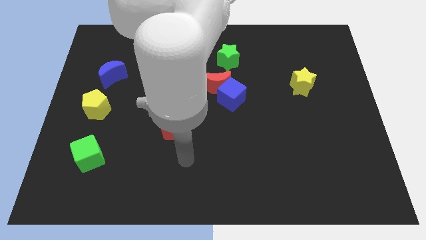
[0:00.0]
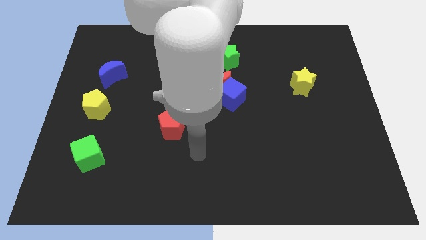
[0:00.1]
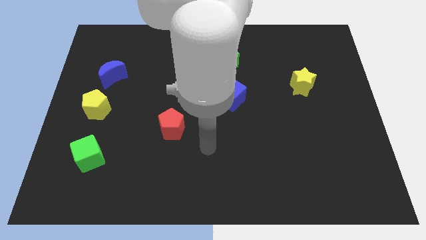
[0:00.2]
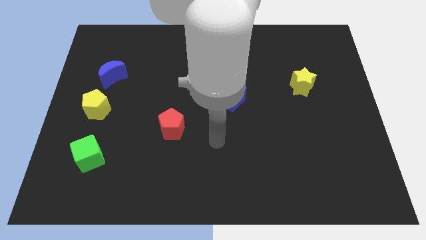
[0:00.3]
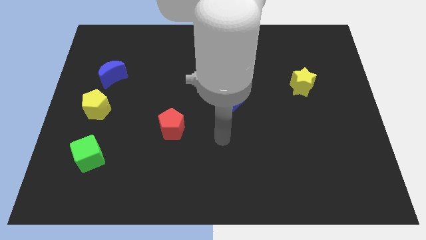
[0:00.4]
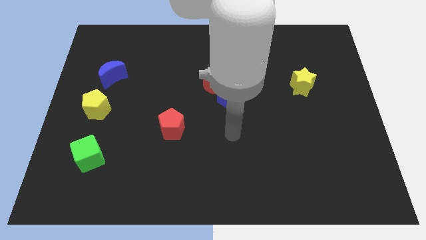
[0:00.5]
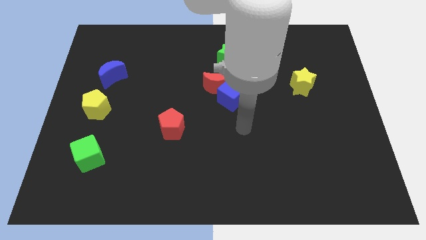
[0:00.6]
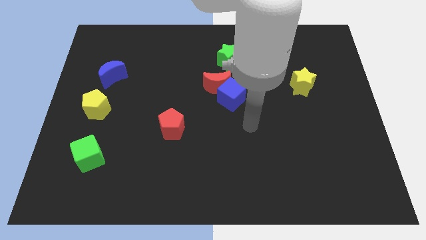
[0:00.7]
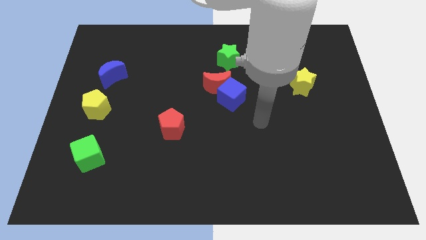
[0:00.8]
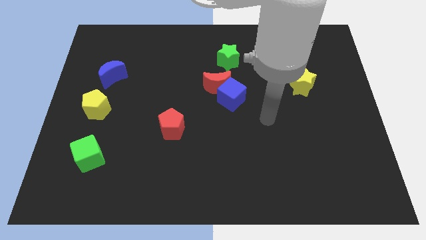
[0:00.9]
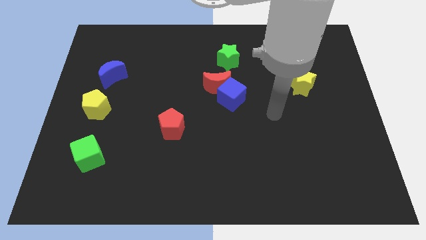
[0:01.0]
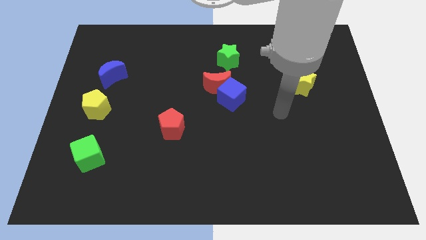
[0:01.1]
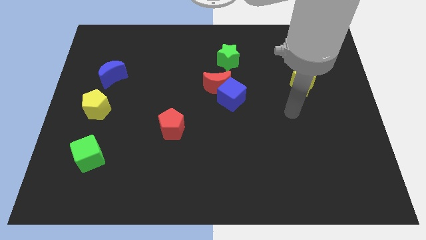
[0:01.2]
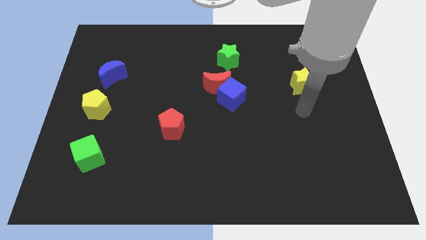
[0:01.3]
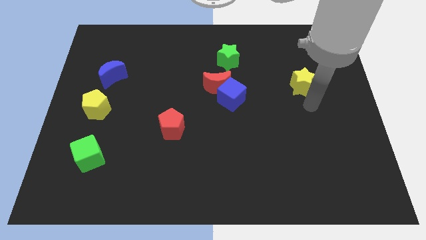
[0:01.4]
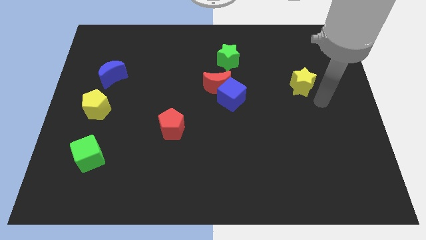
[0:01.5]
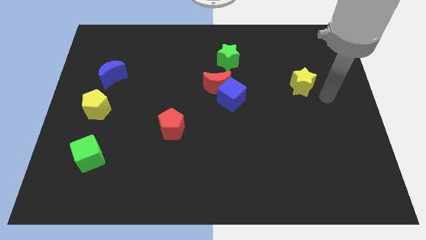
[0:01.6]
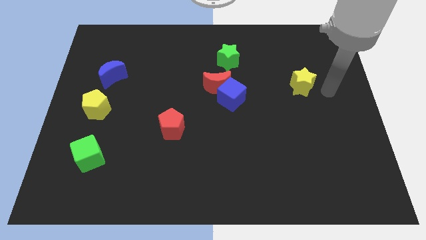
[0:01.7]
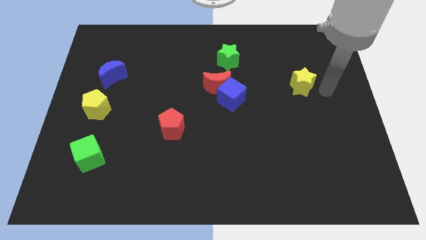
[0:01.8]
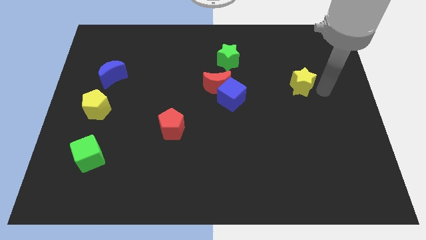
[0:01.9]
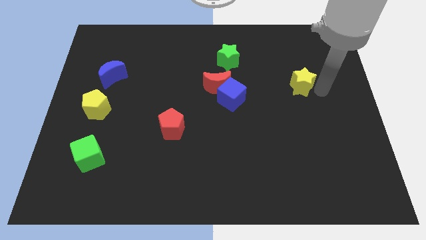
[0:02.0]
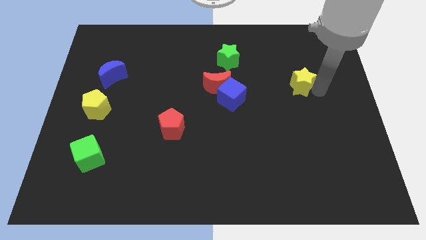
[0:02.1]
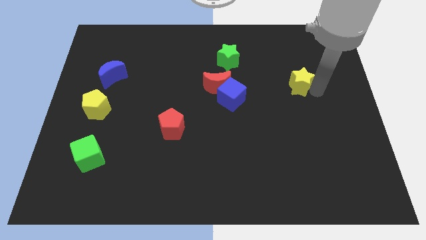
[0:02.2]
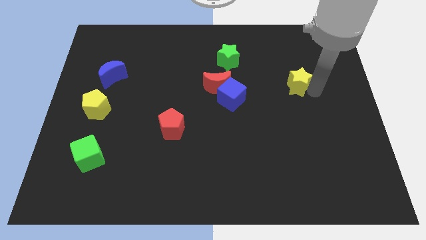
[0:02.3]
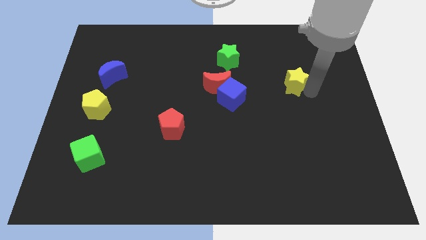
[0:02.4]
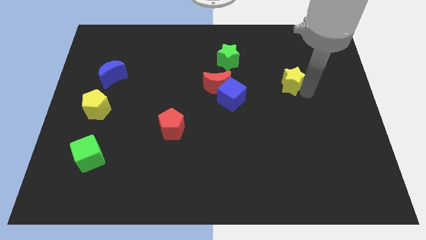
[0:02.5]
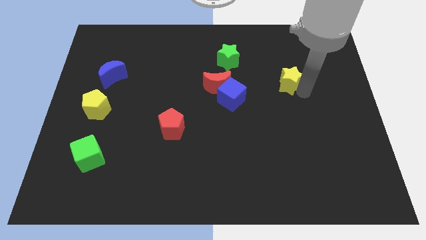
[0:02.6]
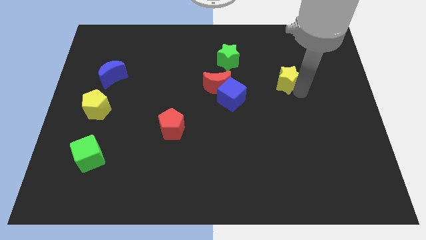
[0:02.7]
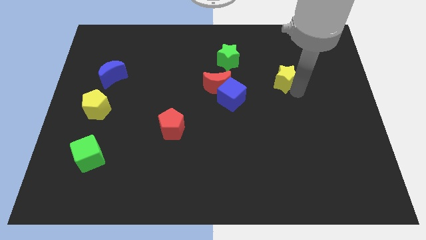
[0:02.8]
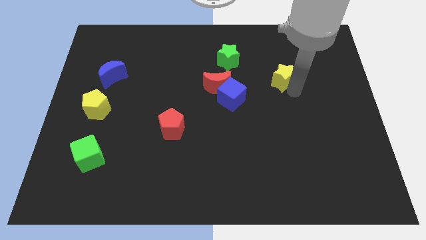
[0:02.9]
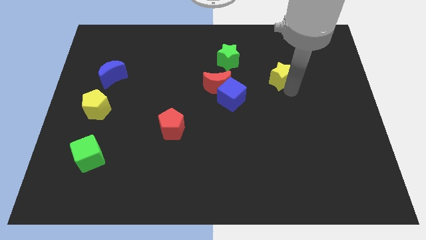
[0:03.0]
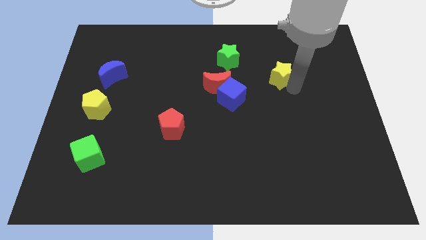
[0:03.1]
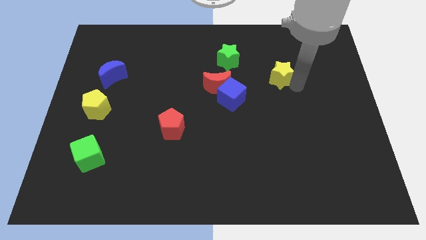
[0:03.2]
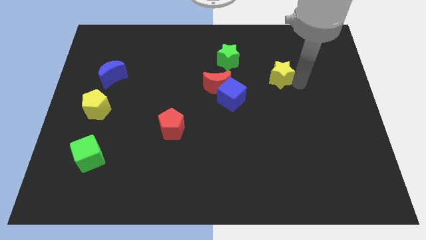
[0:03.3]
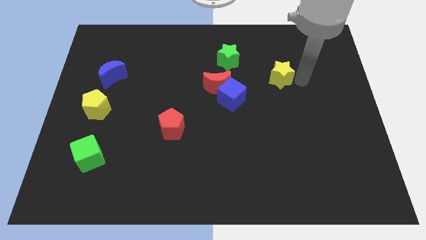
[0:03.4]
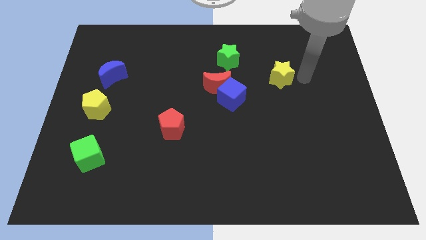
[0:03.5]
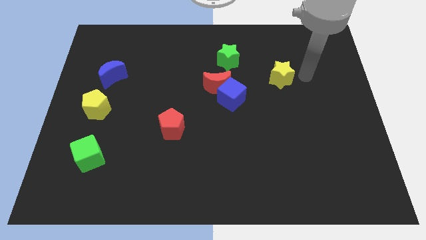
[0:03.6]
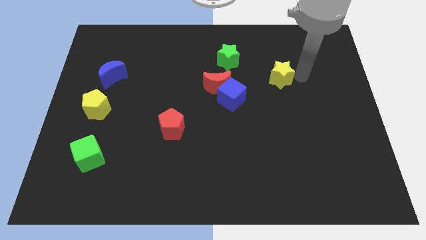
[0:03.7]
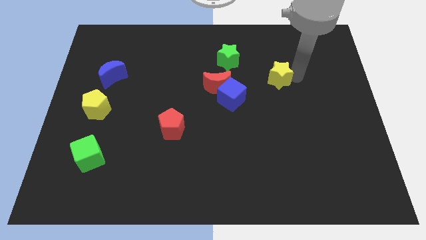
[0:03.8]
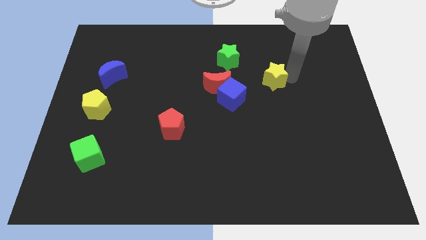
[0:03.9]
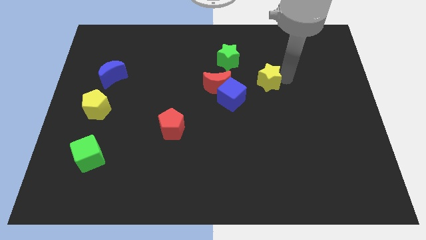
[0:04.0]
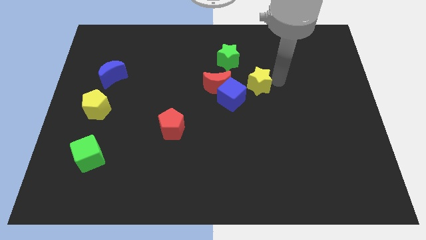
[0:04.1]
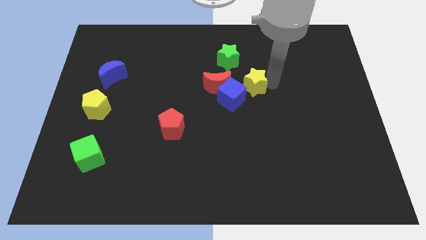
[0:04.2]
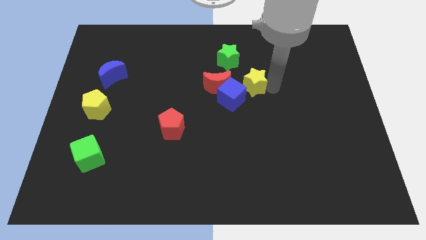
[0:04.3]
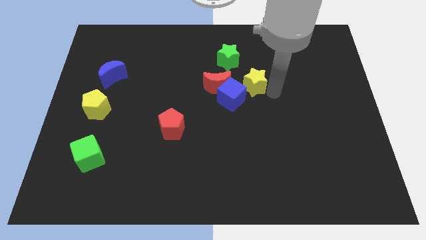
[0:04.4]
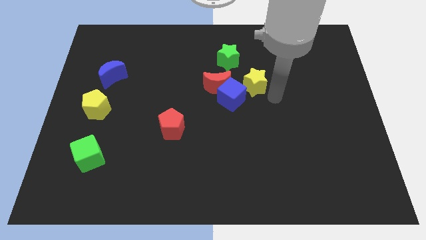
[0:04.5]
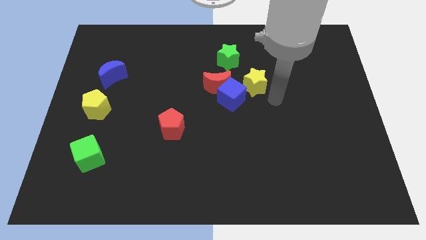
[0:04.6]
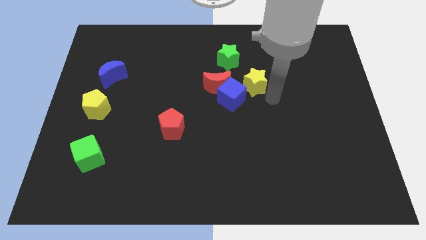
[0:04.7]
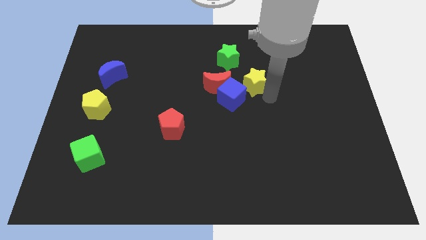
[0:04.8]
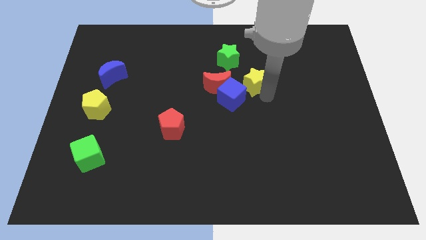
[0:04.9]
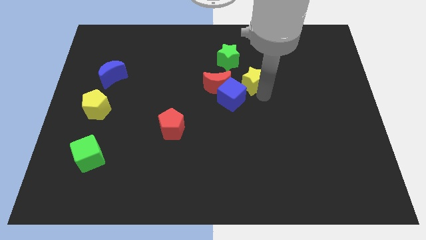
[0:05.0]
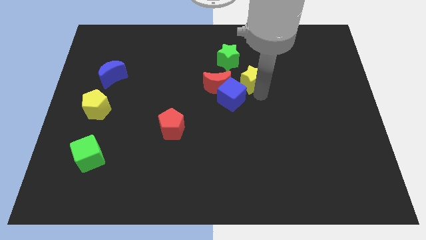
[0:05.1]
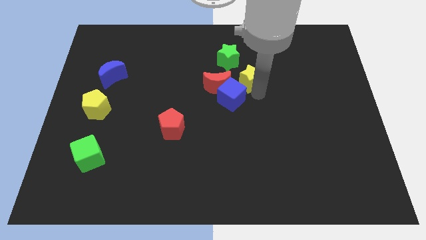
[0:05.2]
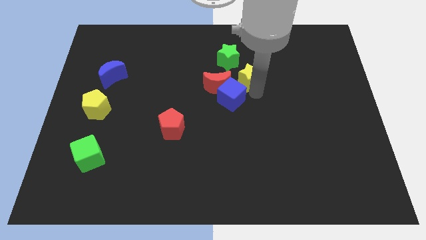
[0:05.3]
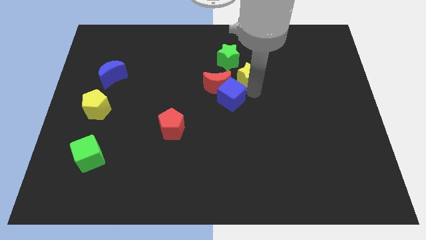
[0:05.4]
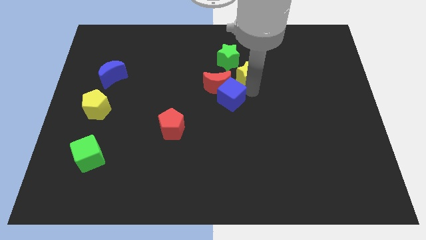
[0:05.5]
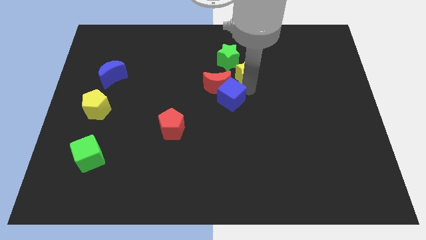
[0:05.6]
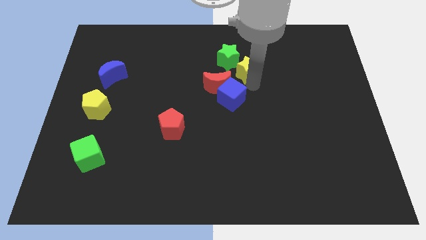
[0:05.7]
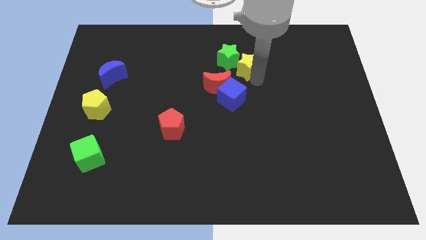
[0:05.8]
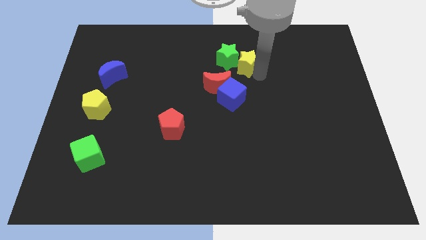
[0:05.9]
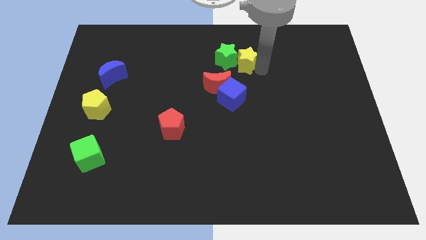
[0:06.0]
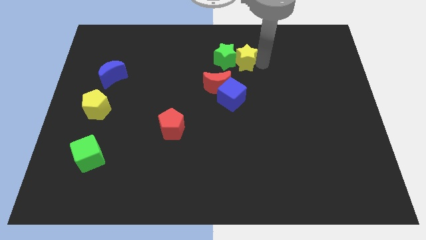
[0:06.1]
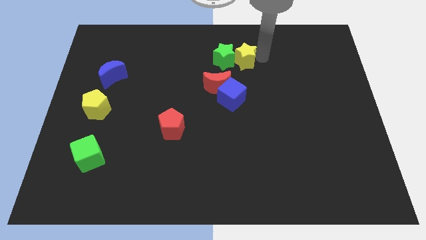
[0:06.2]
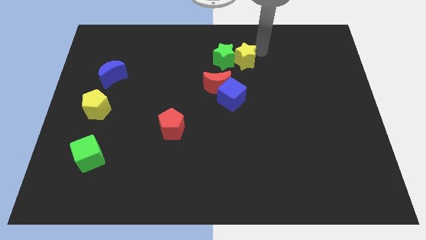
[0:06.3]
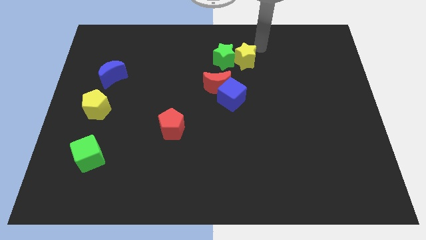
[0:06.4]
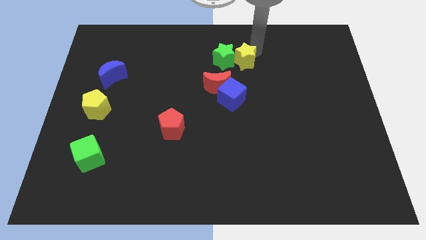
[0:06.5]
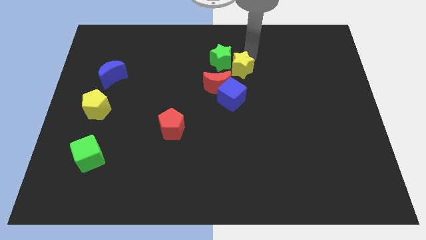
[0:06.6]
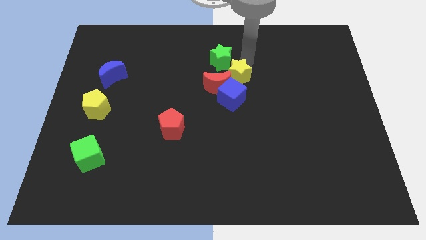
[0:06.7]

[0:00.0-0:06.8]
move the yellow star close to the red moon

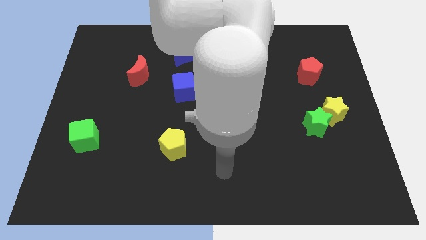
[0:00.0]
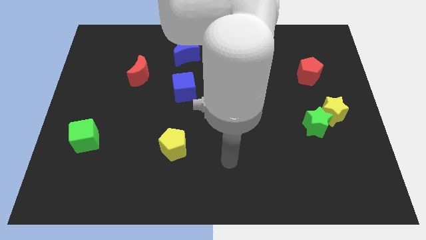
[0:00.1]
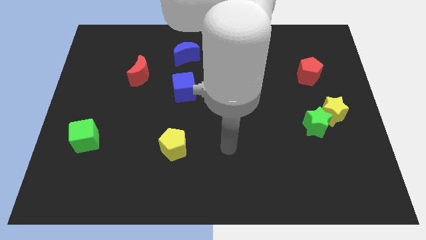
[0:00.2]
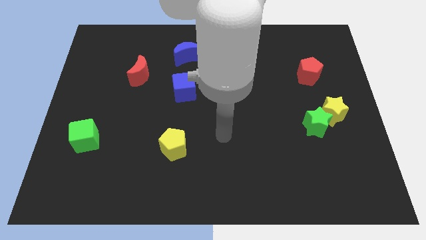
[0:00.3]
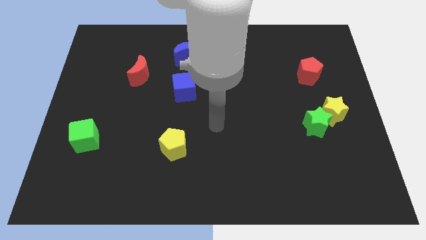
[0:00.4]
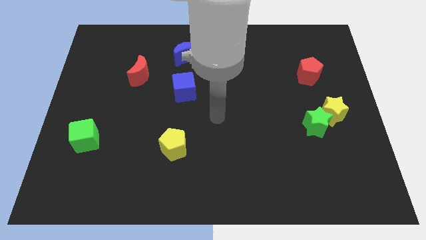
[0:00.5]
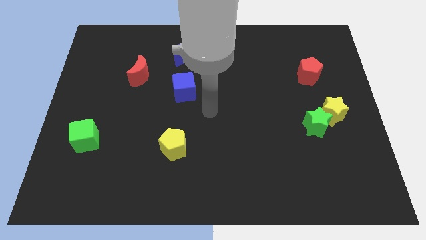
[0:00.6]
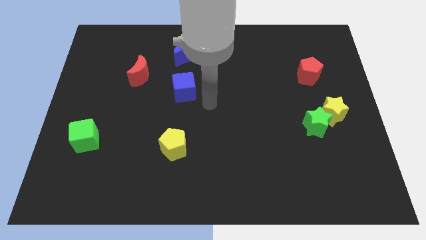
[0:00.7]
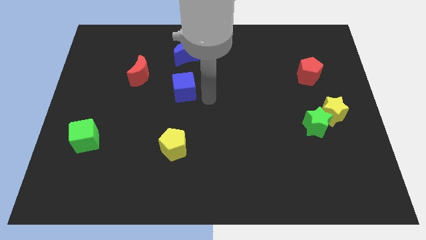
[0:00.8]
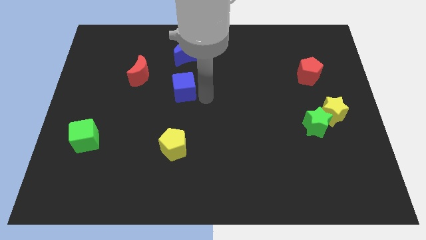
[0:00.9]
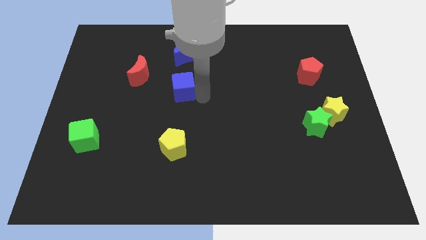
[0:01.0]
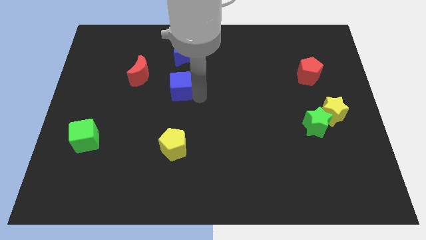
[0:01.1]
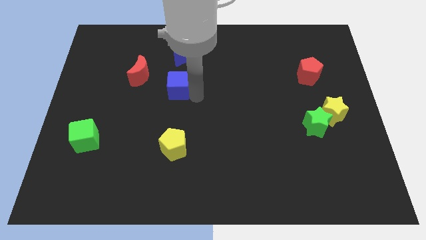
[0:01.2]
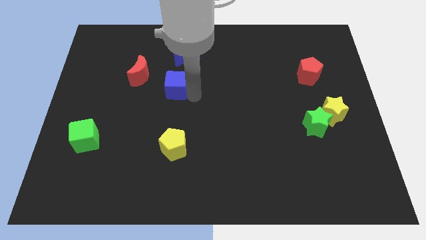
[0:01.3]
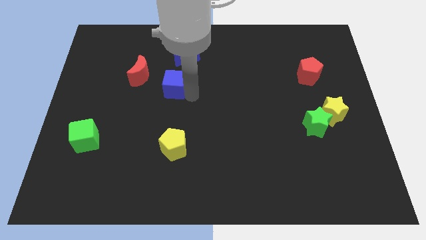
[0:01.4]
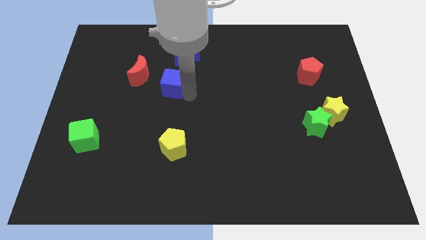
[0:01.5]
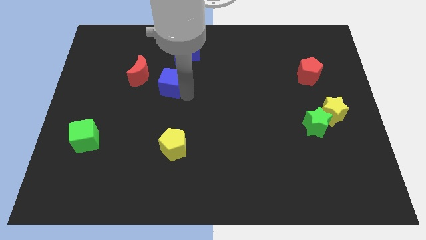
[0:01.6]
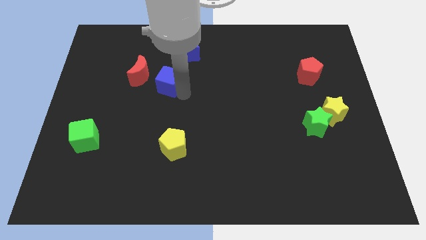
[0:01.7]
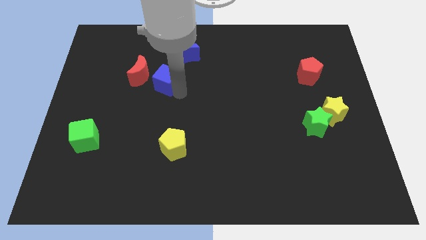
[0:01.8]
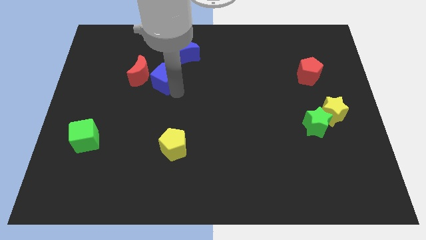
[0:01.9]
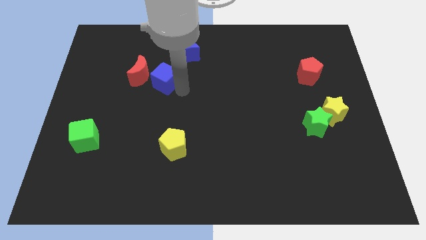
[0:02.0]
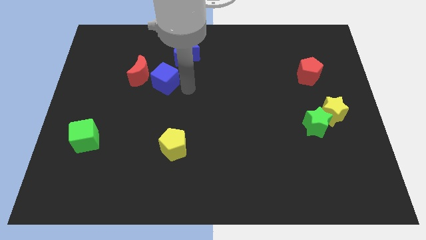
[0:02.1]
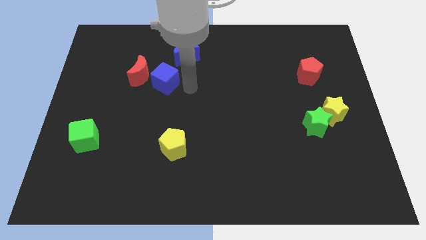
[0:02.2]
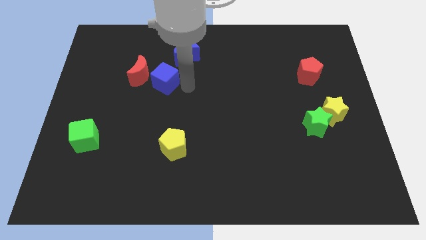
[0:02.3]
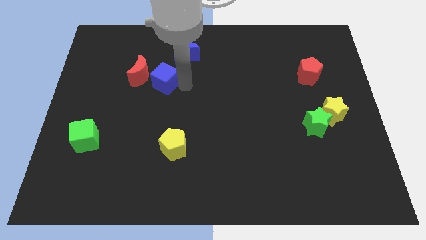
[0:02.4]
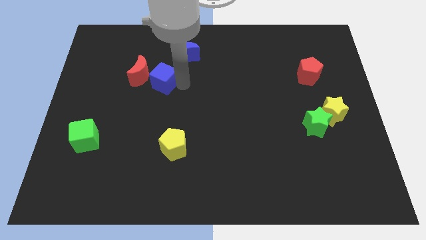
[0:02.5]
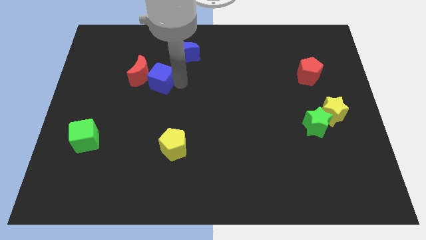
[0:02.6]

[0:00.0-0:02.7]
push the blue cube towards the red moon
